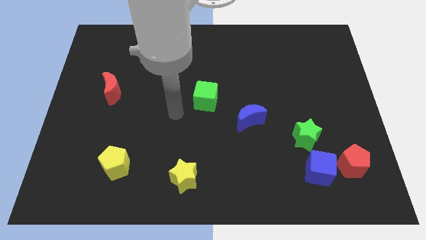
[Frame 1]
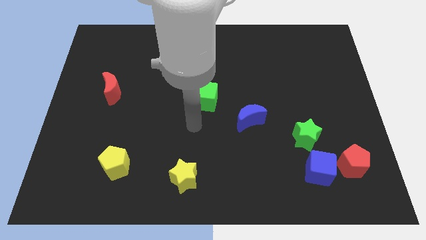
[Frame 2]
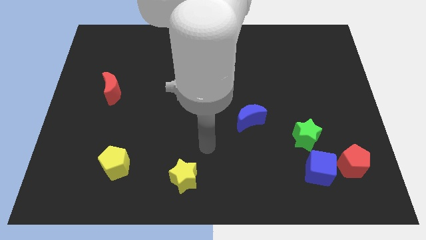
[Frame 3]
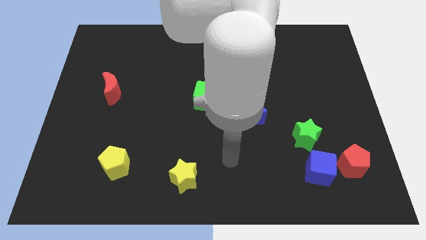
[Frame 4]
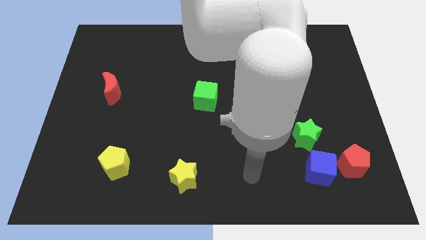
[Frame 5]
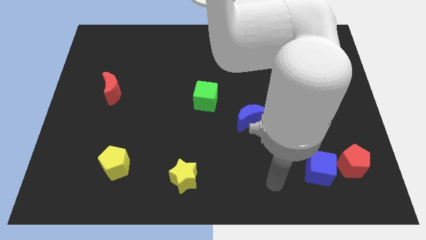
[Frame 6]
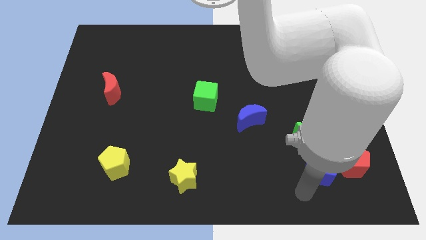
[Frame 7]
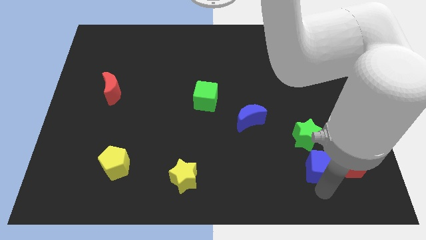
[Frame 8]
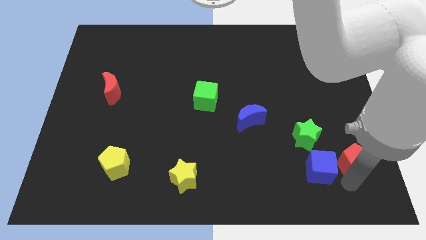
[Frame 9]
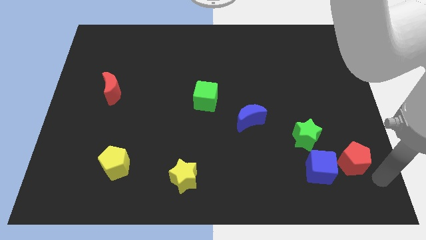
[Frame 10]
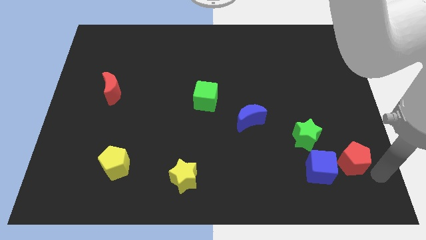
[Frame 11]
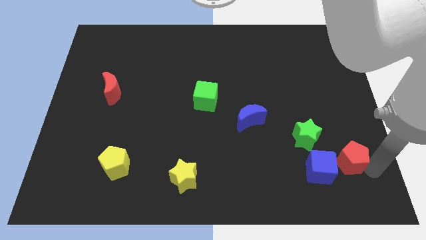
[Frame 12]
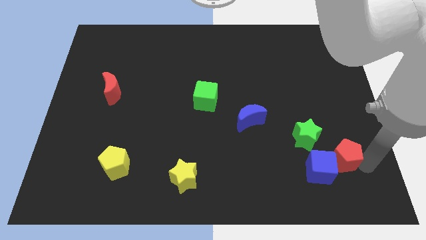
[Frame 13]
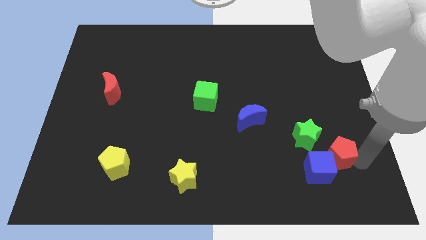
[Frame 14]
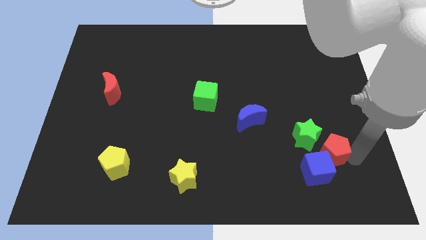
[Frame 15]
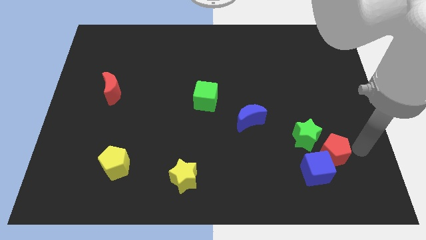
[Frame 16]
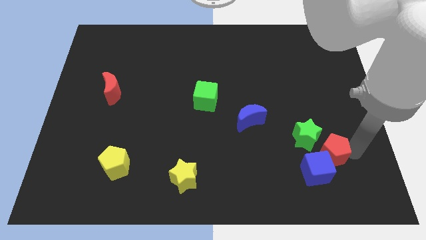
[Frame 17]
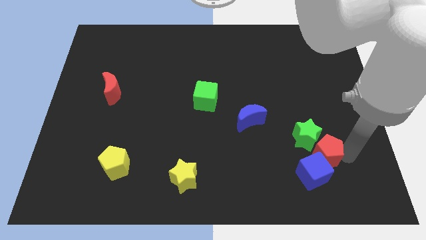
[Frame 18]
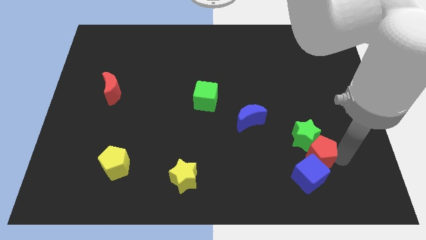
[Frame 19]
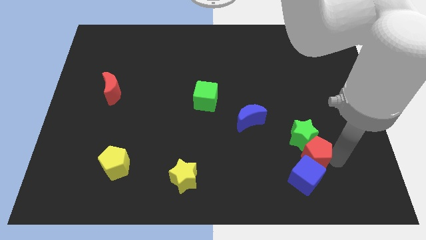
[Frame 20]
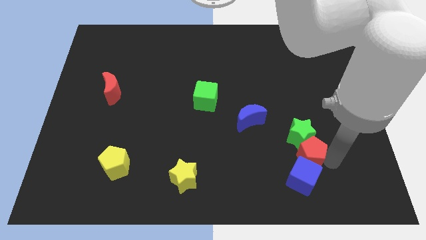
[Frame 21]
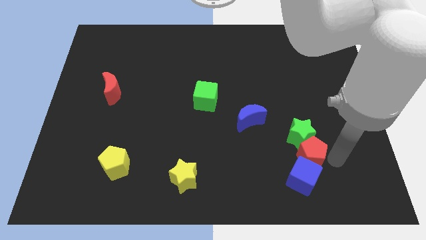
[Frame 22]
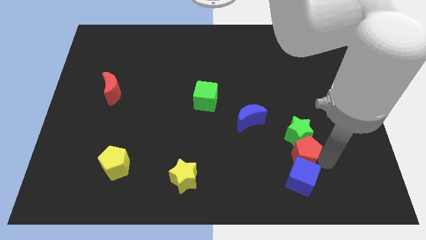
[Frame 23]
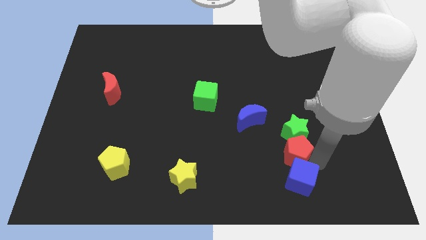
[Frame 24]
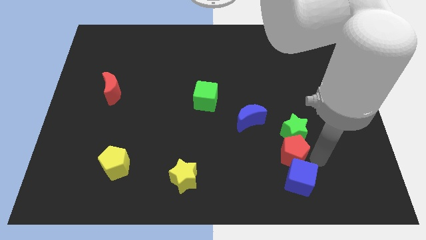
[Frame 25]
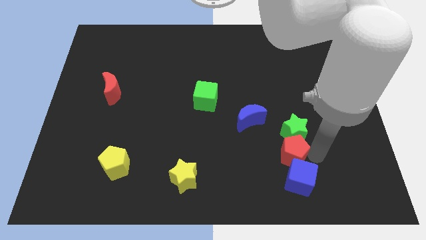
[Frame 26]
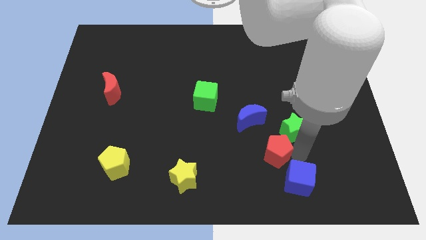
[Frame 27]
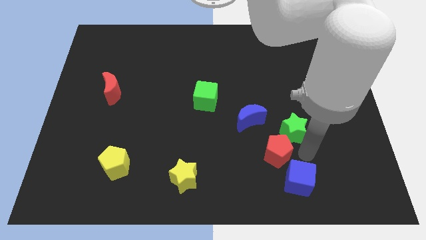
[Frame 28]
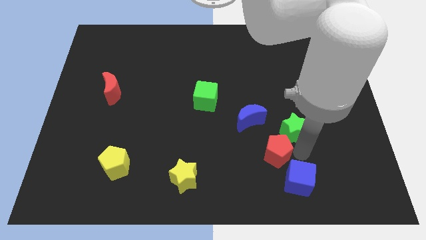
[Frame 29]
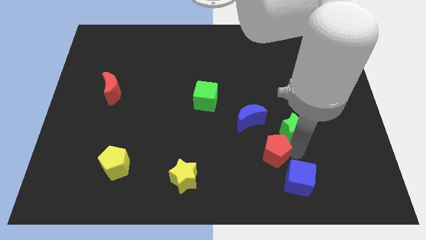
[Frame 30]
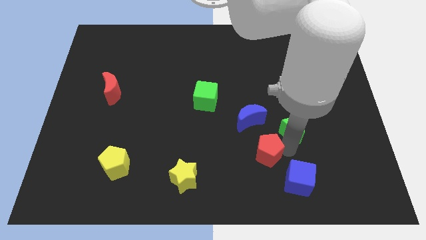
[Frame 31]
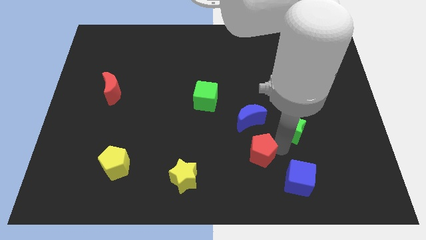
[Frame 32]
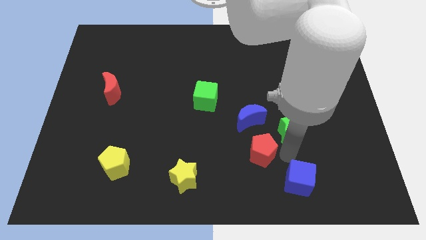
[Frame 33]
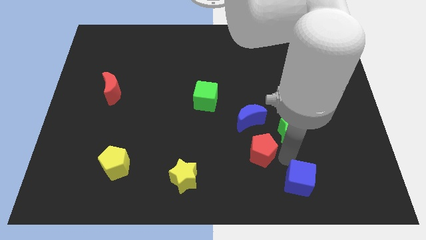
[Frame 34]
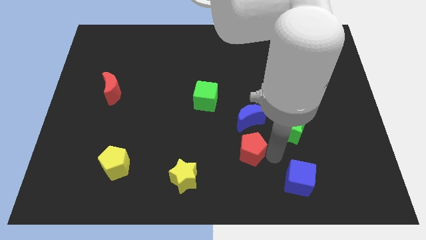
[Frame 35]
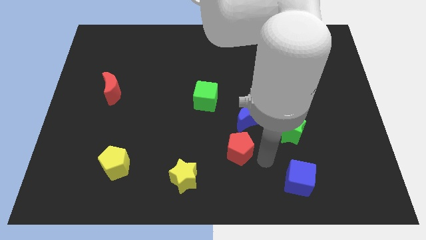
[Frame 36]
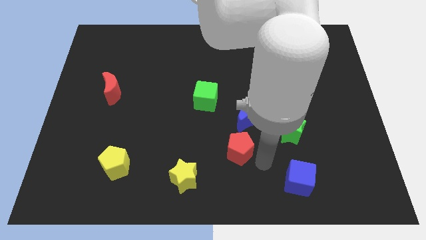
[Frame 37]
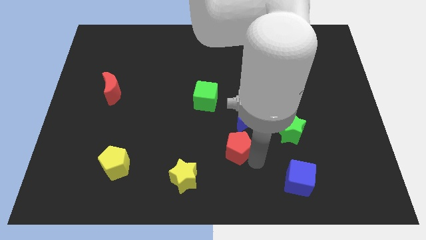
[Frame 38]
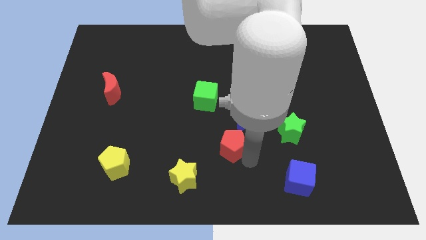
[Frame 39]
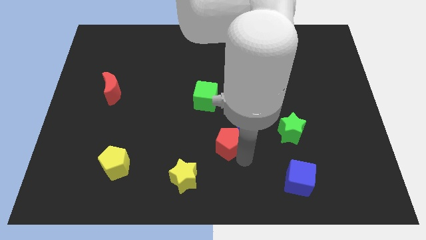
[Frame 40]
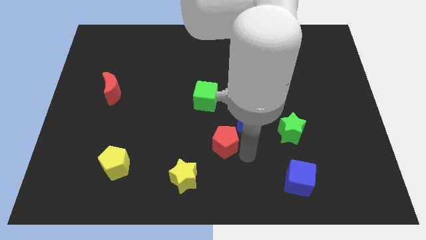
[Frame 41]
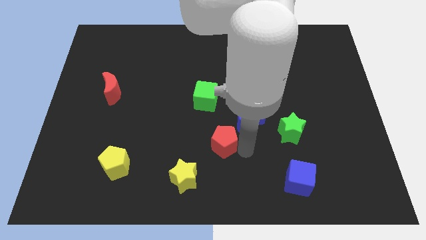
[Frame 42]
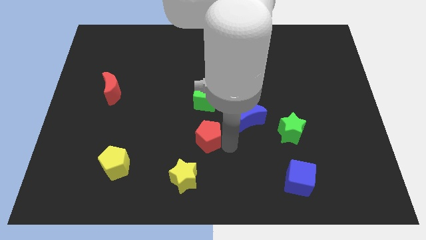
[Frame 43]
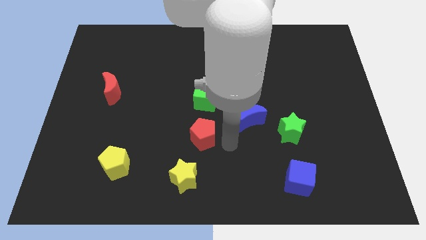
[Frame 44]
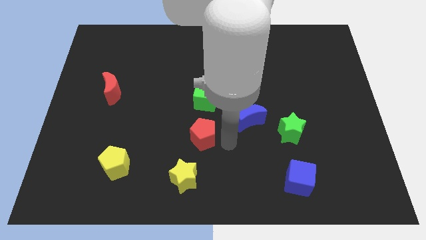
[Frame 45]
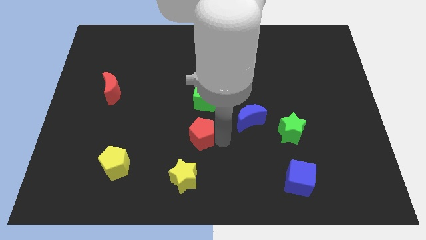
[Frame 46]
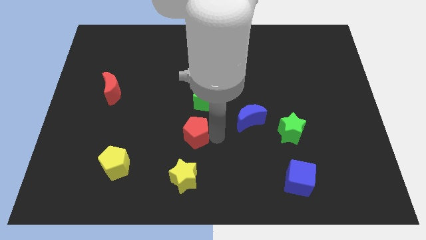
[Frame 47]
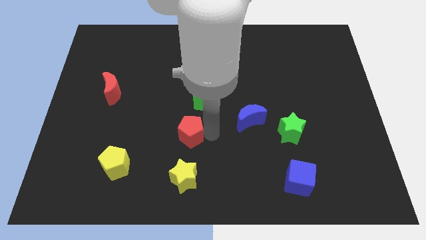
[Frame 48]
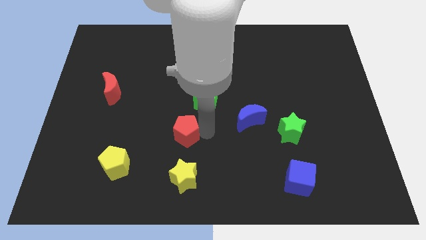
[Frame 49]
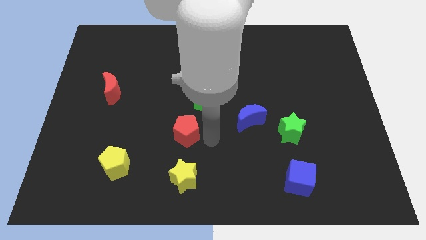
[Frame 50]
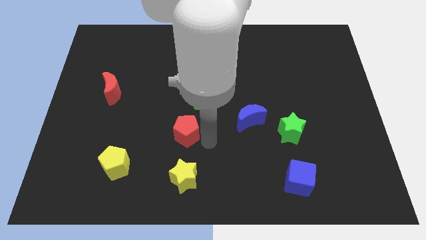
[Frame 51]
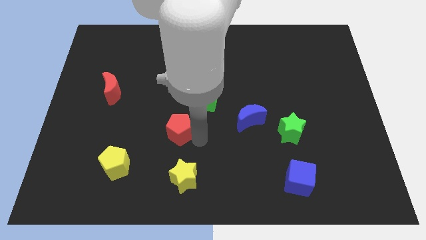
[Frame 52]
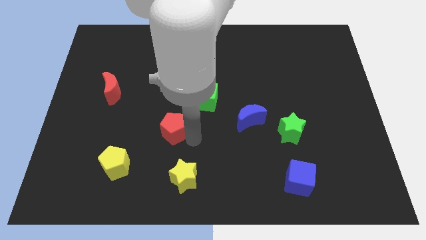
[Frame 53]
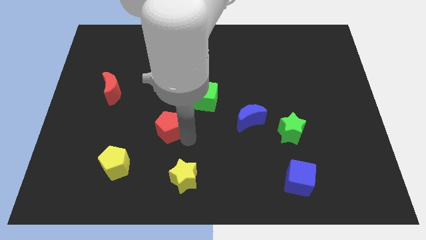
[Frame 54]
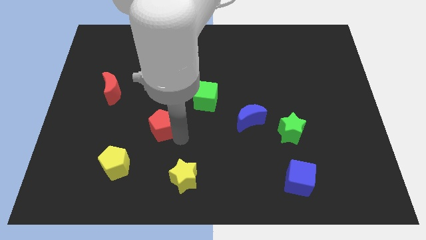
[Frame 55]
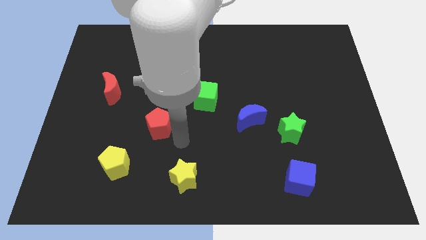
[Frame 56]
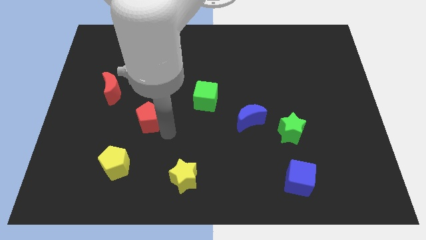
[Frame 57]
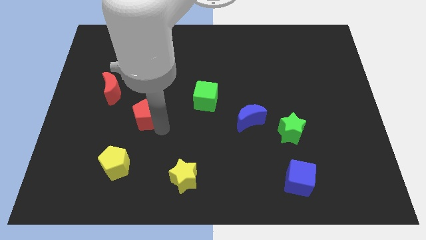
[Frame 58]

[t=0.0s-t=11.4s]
put the red pentagon to the bottom right side of the red moon

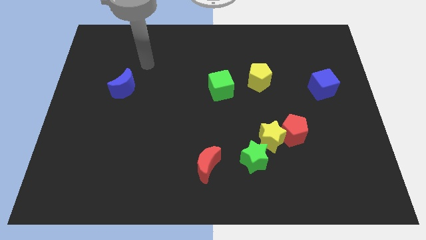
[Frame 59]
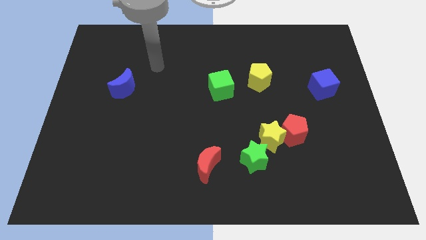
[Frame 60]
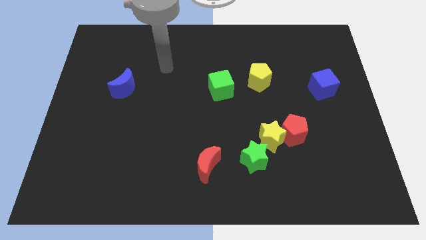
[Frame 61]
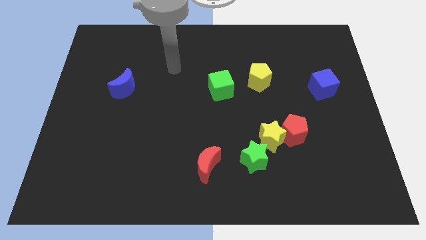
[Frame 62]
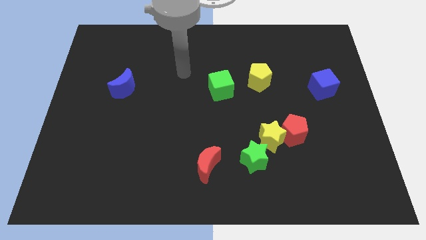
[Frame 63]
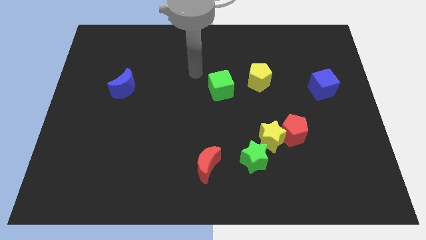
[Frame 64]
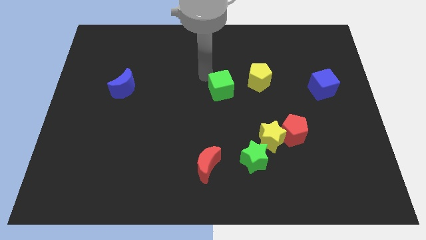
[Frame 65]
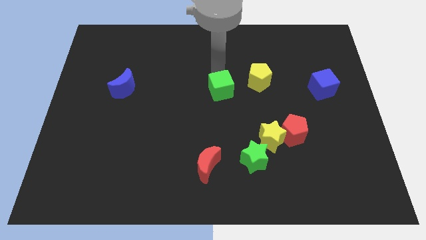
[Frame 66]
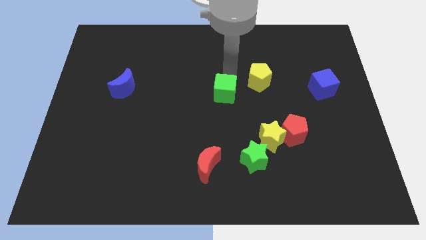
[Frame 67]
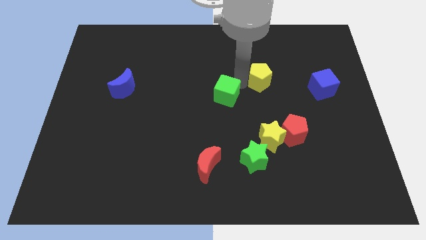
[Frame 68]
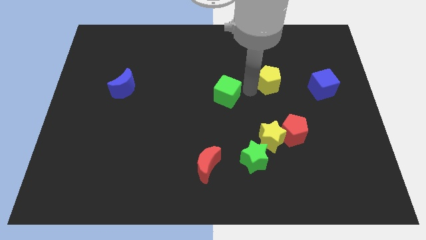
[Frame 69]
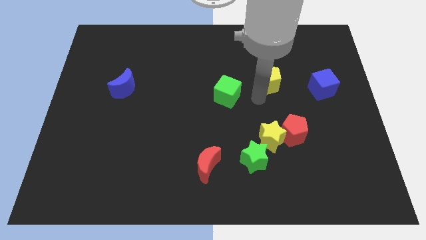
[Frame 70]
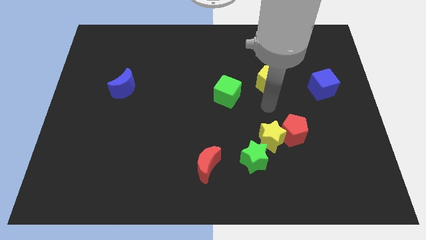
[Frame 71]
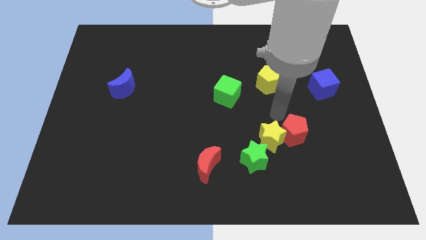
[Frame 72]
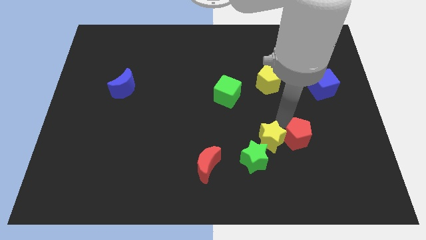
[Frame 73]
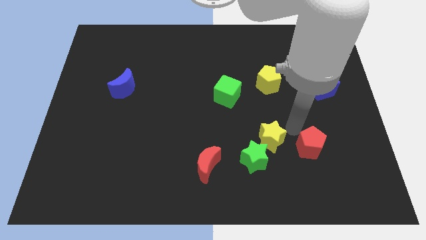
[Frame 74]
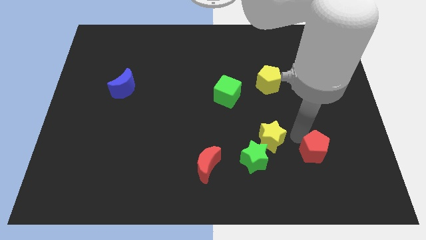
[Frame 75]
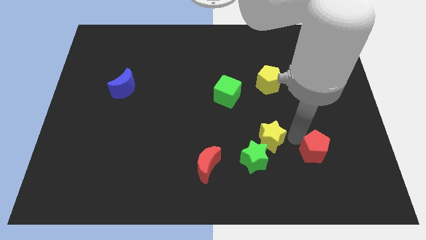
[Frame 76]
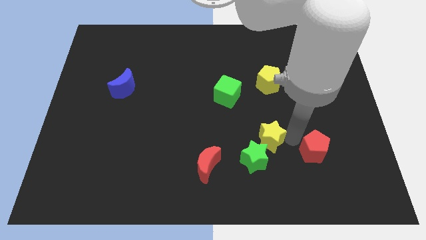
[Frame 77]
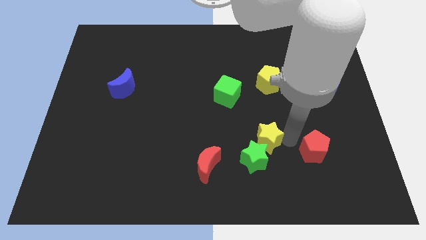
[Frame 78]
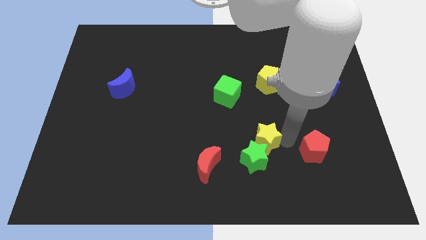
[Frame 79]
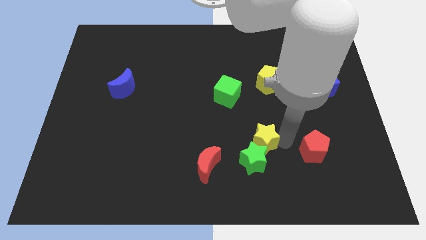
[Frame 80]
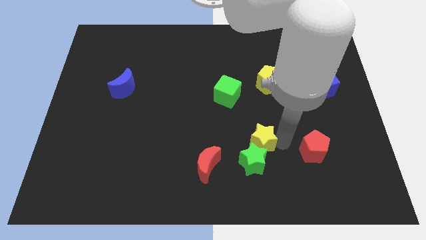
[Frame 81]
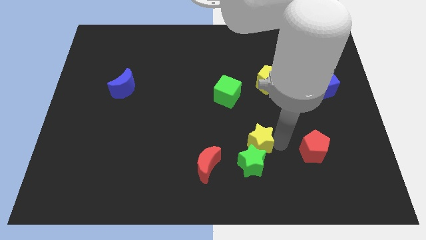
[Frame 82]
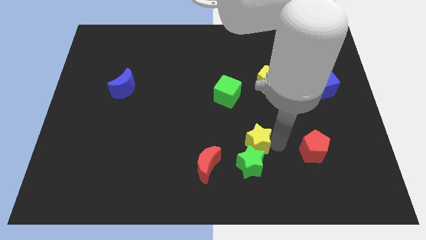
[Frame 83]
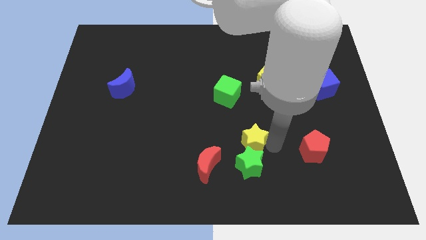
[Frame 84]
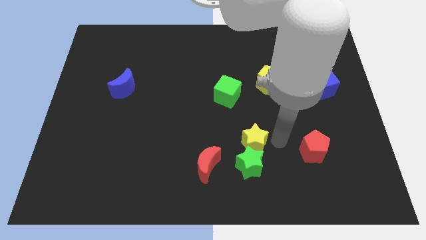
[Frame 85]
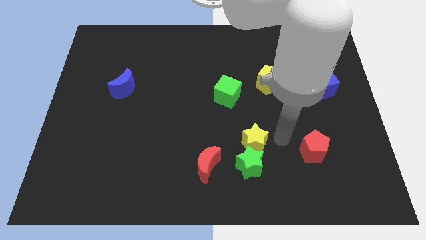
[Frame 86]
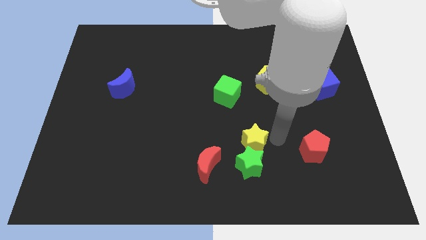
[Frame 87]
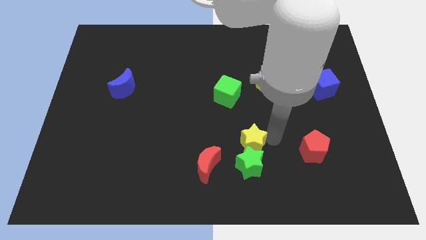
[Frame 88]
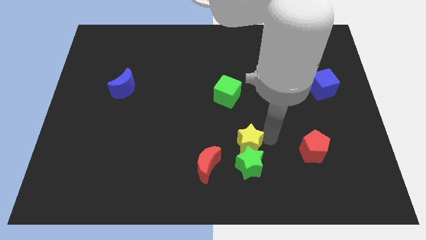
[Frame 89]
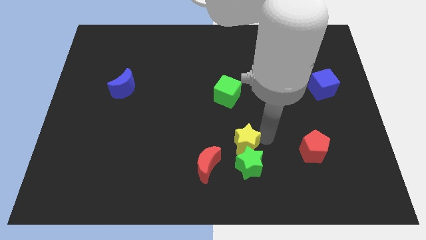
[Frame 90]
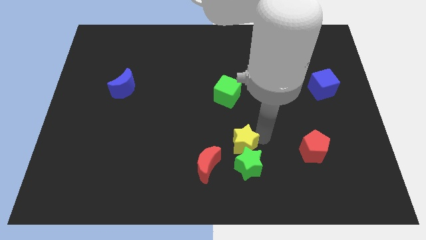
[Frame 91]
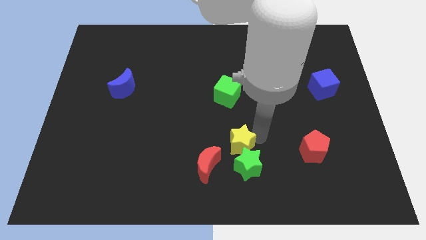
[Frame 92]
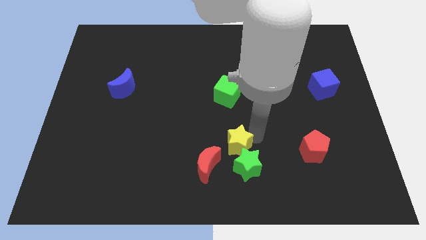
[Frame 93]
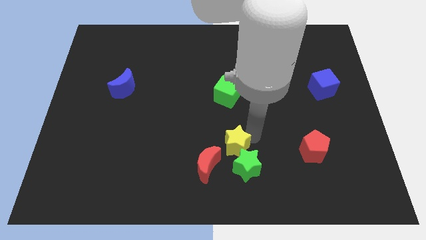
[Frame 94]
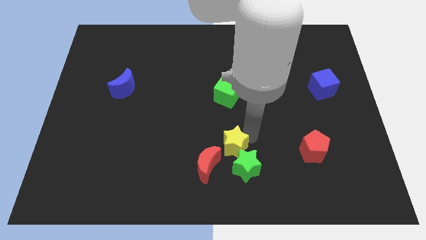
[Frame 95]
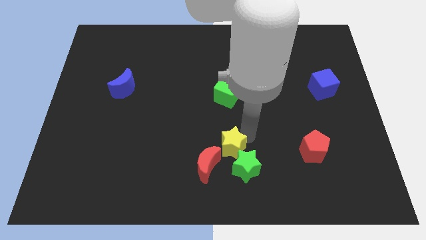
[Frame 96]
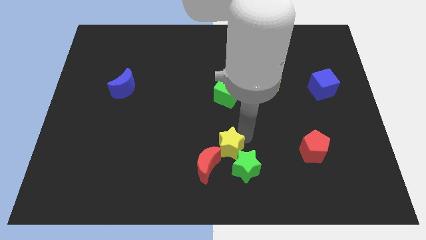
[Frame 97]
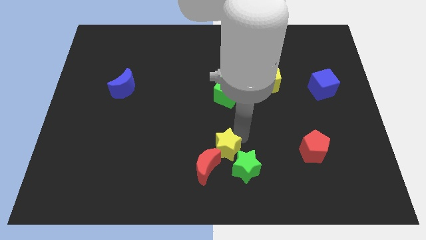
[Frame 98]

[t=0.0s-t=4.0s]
push the yellow star to the left of the green star
